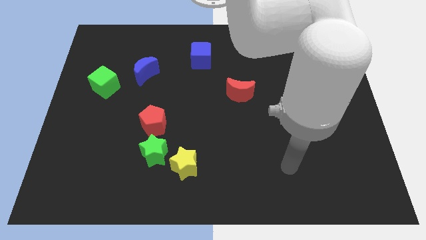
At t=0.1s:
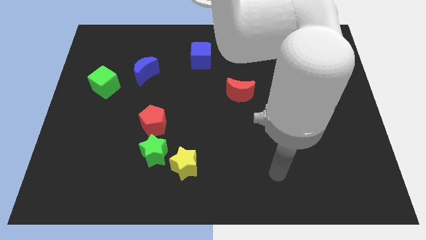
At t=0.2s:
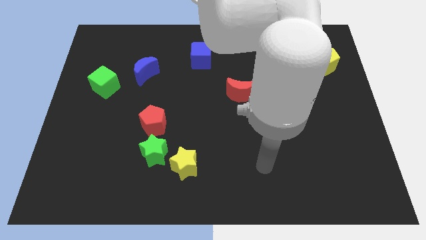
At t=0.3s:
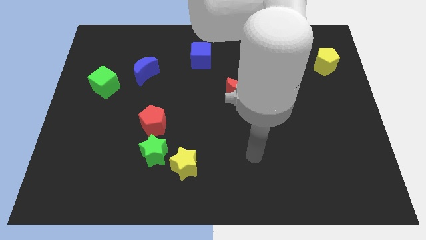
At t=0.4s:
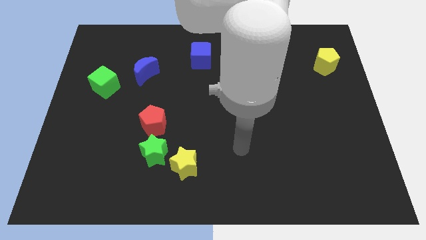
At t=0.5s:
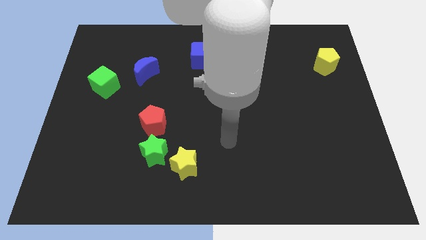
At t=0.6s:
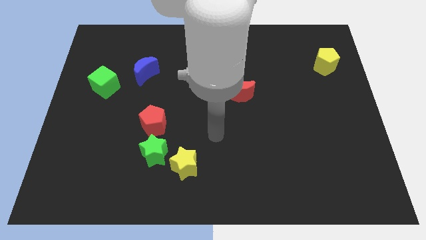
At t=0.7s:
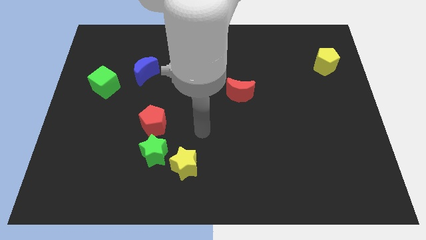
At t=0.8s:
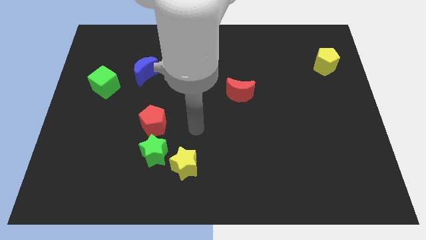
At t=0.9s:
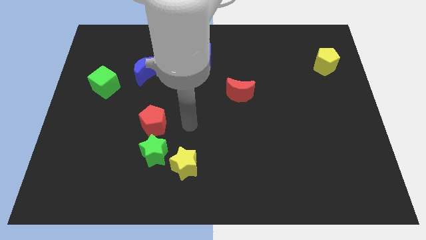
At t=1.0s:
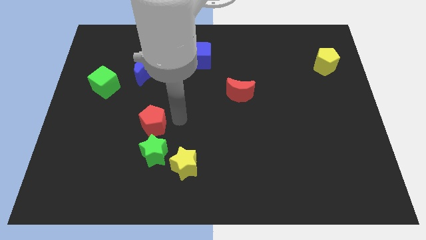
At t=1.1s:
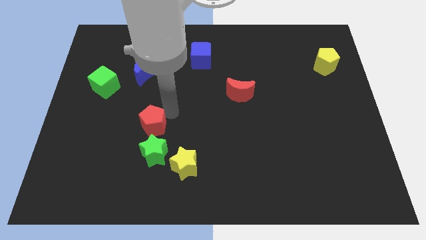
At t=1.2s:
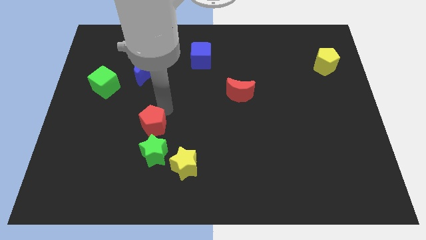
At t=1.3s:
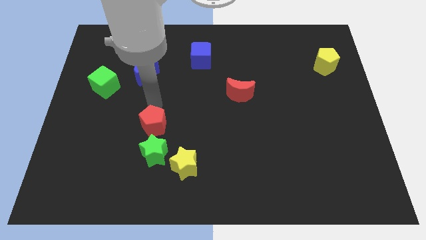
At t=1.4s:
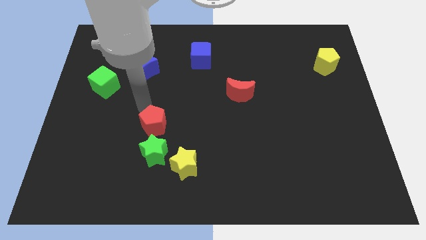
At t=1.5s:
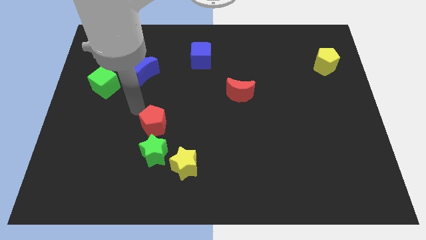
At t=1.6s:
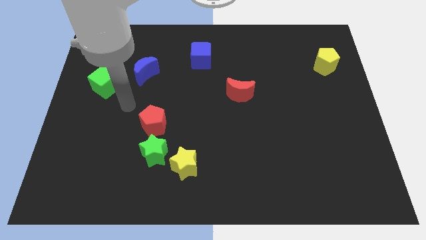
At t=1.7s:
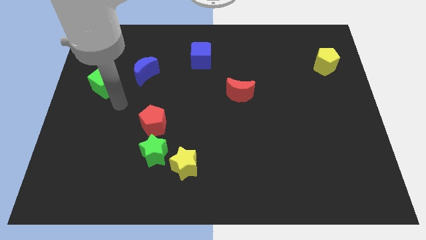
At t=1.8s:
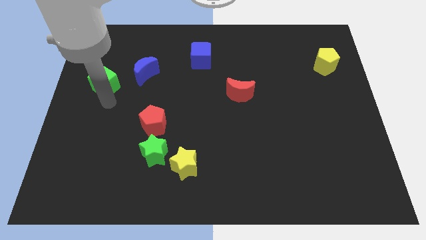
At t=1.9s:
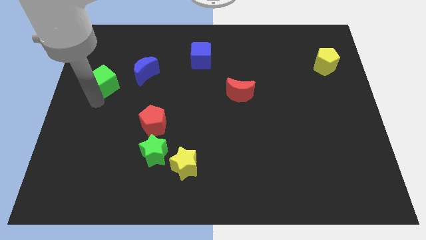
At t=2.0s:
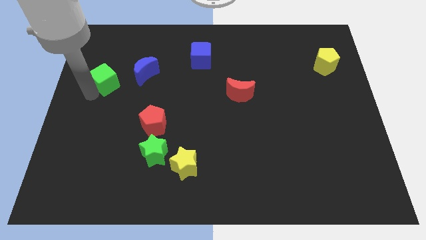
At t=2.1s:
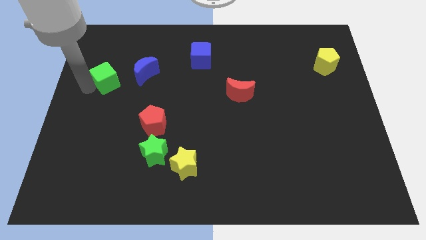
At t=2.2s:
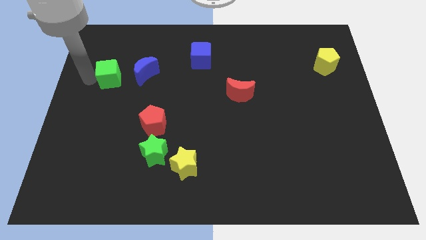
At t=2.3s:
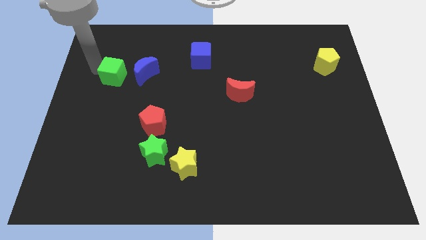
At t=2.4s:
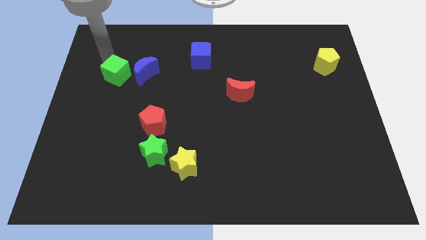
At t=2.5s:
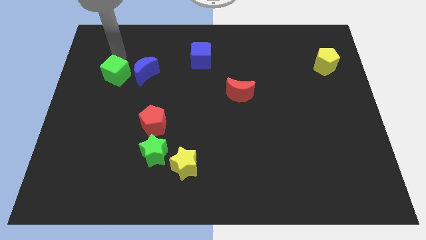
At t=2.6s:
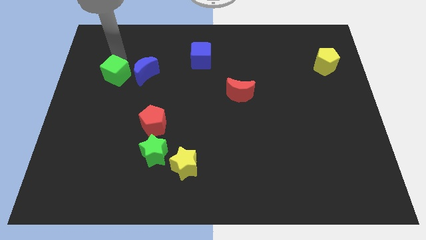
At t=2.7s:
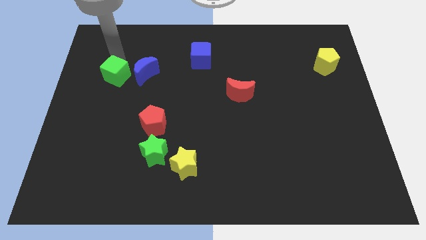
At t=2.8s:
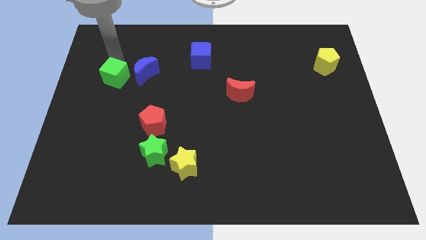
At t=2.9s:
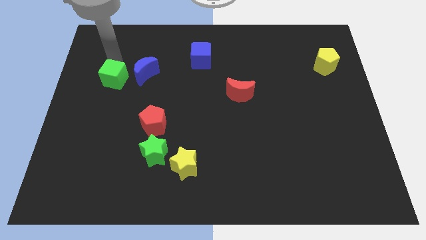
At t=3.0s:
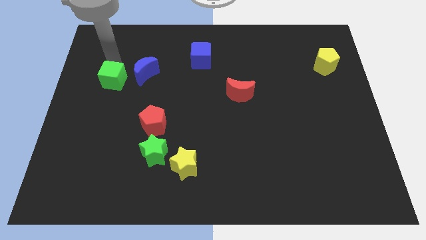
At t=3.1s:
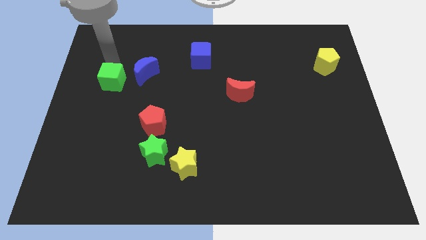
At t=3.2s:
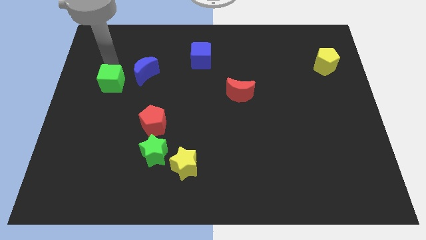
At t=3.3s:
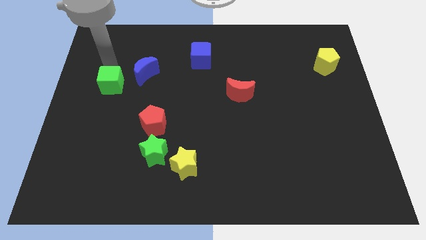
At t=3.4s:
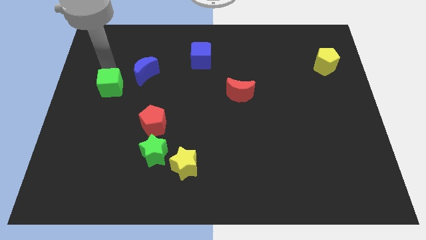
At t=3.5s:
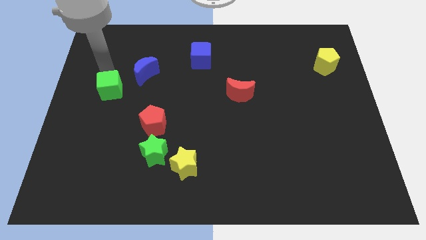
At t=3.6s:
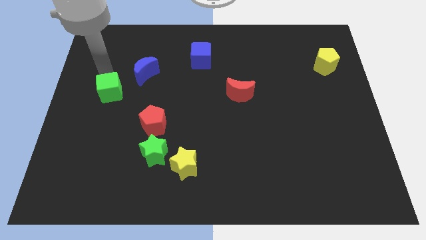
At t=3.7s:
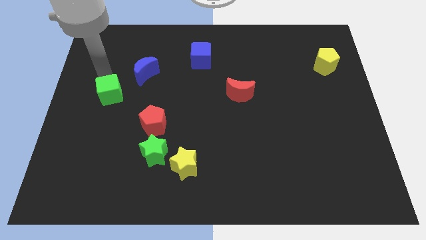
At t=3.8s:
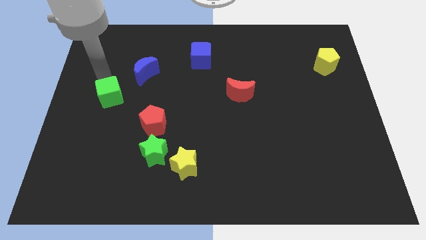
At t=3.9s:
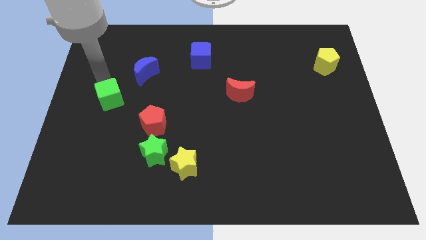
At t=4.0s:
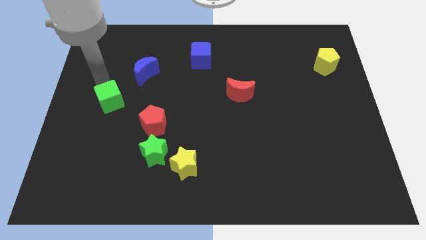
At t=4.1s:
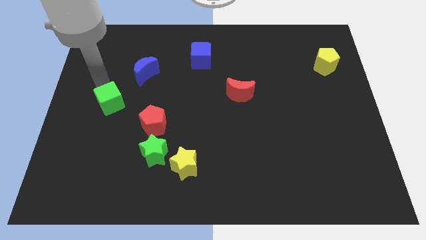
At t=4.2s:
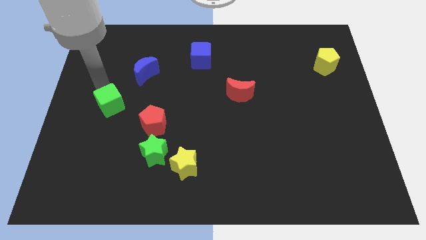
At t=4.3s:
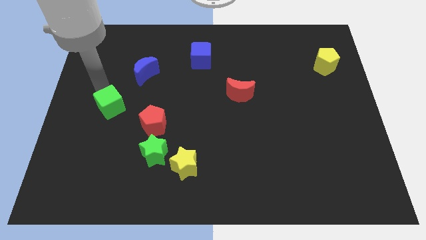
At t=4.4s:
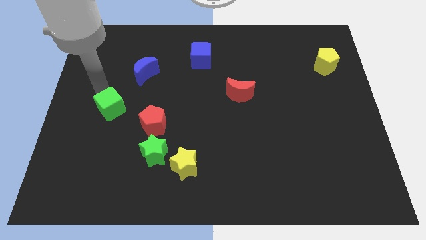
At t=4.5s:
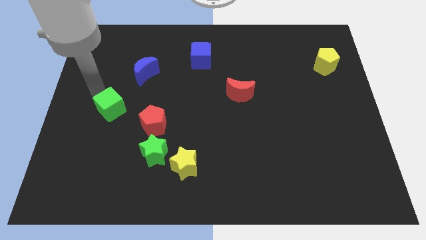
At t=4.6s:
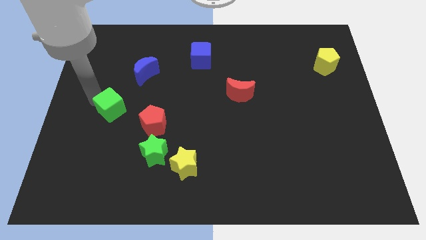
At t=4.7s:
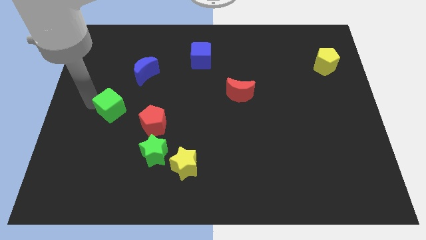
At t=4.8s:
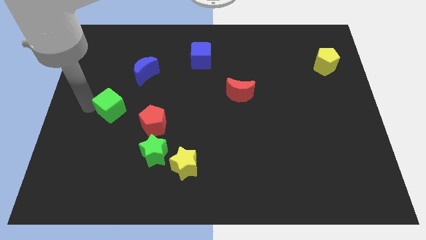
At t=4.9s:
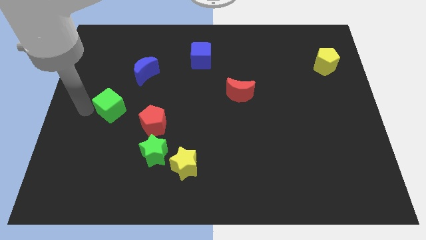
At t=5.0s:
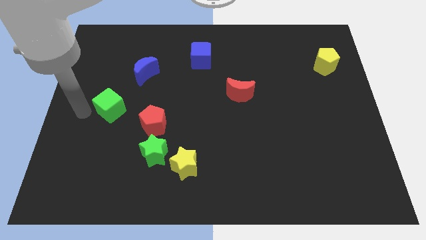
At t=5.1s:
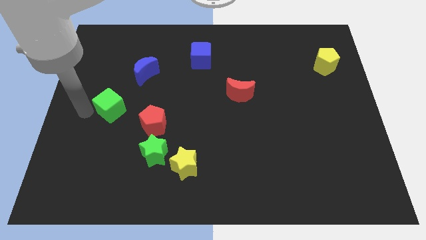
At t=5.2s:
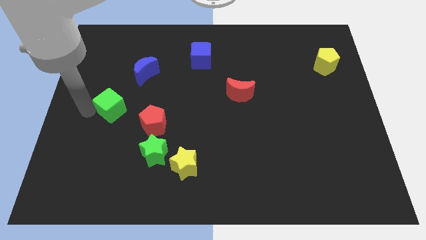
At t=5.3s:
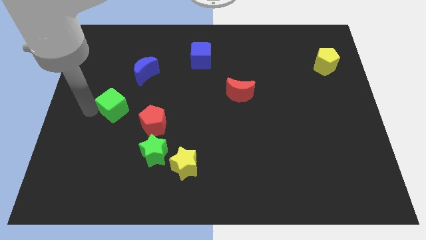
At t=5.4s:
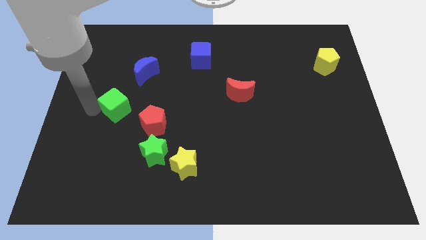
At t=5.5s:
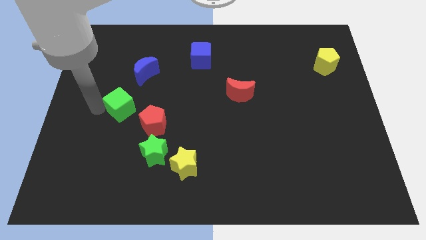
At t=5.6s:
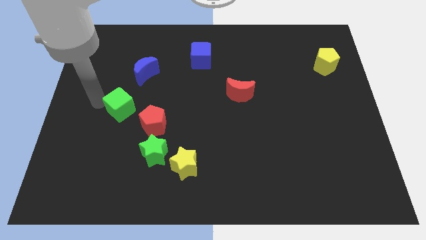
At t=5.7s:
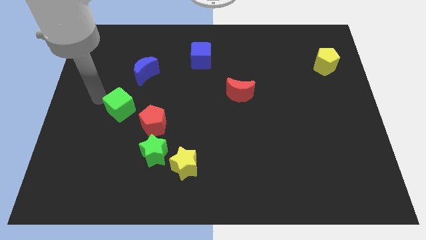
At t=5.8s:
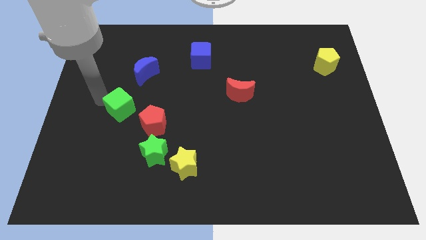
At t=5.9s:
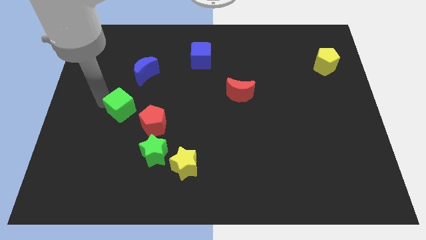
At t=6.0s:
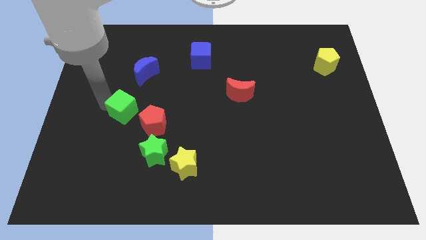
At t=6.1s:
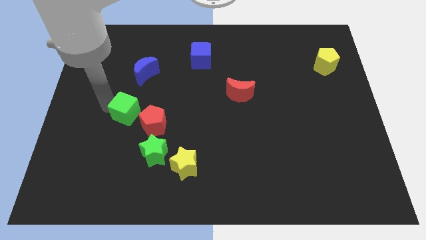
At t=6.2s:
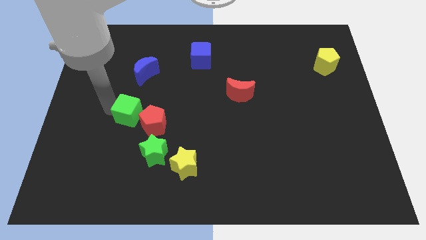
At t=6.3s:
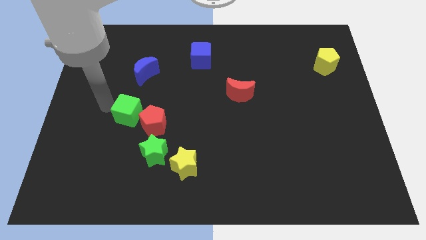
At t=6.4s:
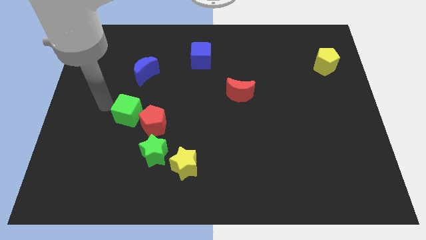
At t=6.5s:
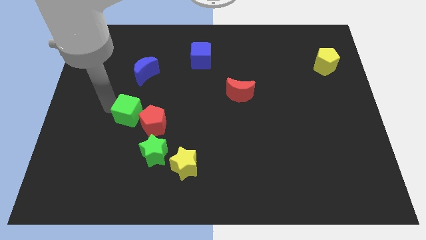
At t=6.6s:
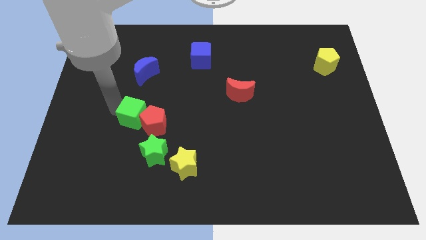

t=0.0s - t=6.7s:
move the green cube close to the red pentagon

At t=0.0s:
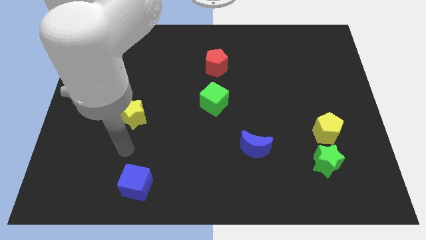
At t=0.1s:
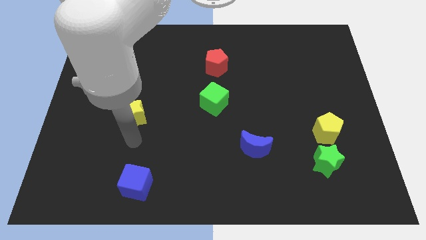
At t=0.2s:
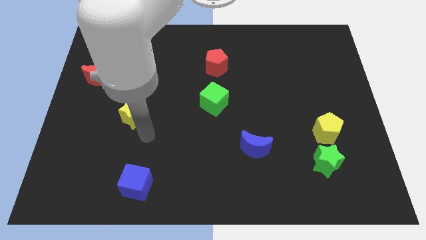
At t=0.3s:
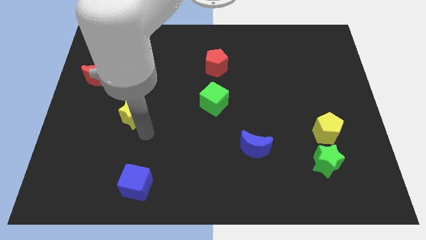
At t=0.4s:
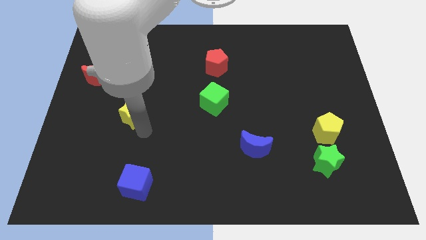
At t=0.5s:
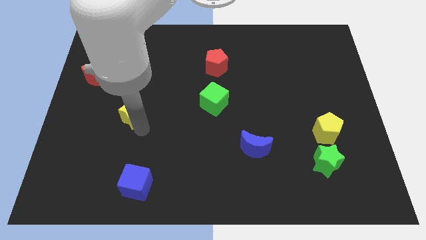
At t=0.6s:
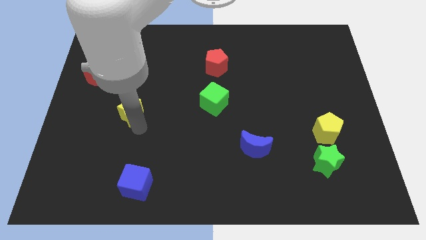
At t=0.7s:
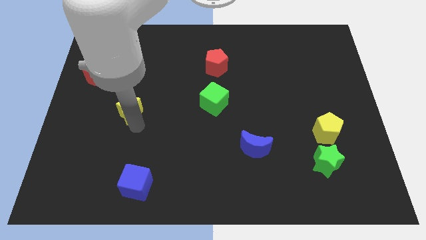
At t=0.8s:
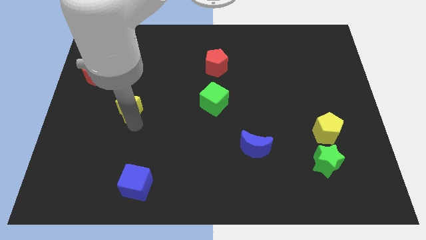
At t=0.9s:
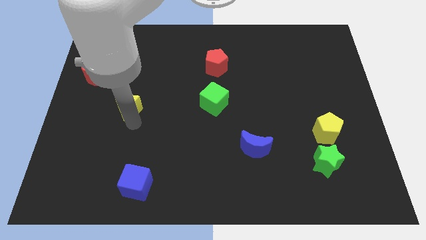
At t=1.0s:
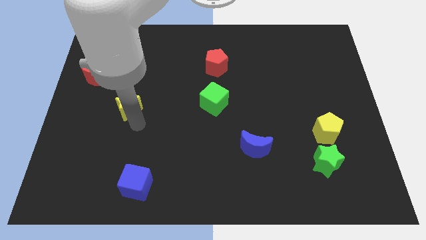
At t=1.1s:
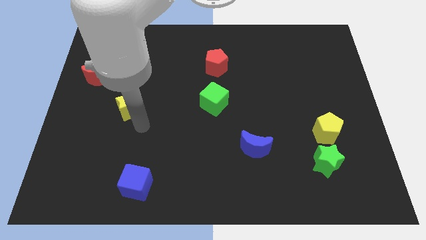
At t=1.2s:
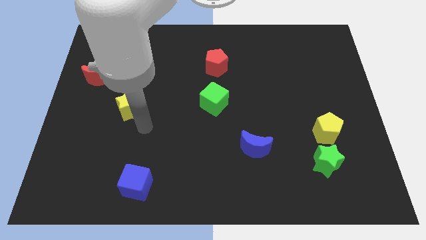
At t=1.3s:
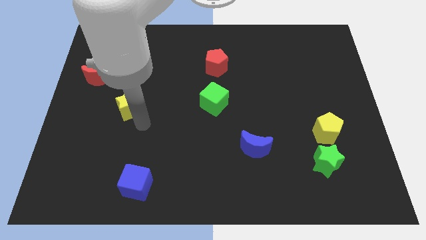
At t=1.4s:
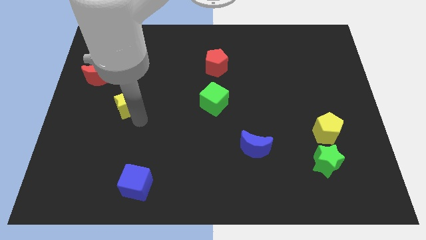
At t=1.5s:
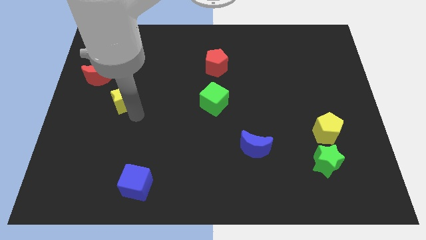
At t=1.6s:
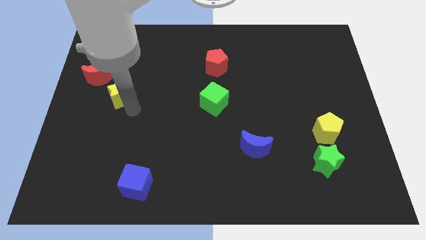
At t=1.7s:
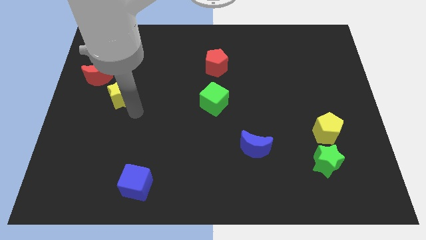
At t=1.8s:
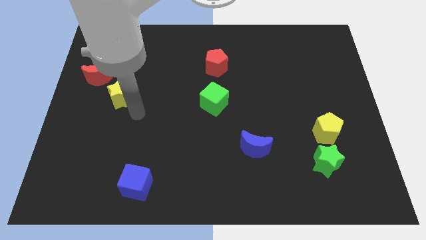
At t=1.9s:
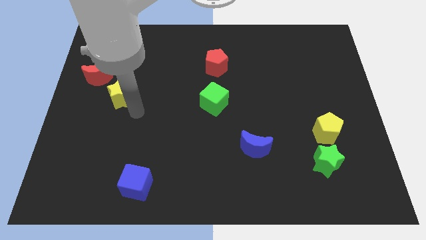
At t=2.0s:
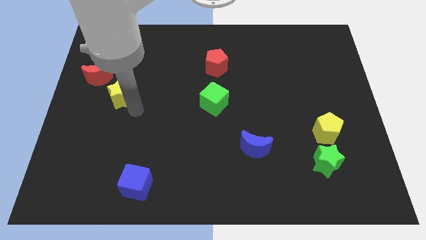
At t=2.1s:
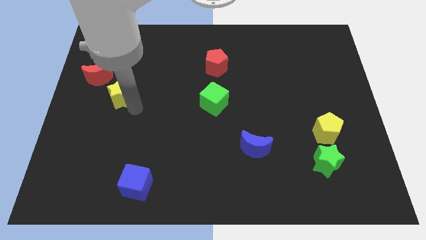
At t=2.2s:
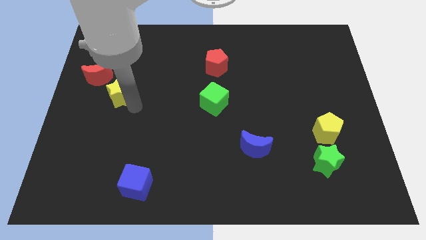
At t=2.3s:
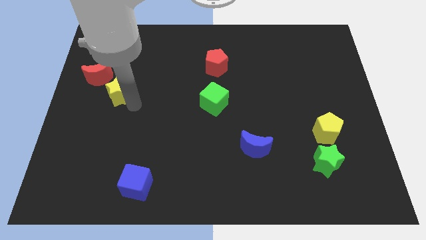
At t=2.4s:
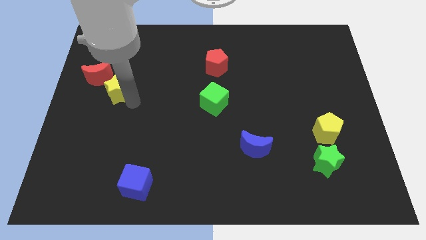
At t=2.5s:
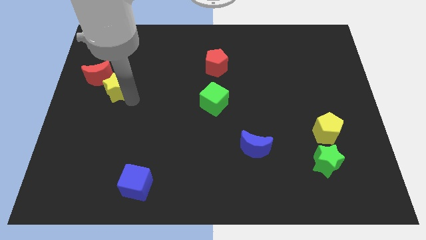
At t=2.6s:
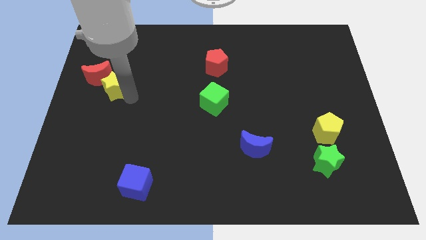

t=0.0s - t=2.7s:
slide the yellow star close to the red moon
